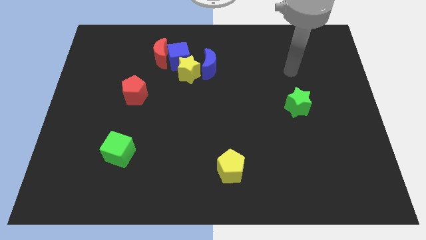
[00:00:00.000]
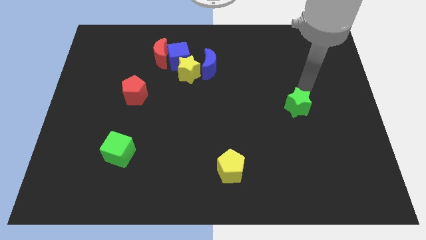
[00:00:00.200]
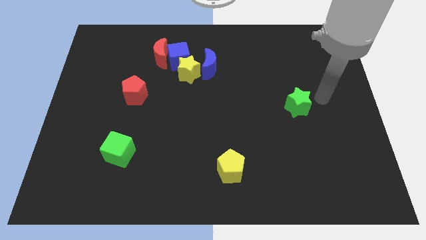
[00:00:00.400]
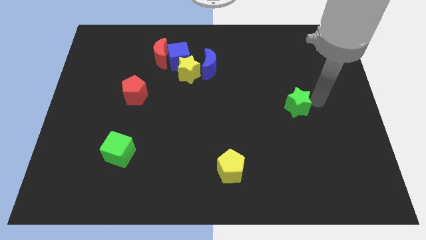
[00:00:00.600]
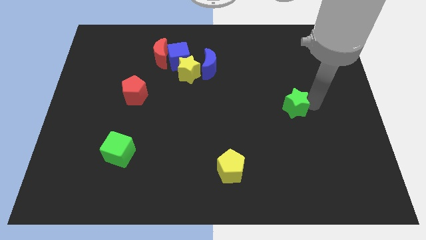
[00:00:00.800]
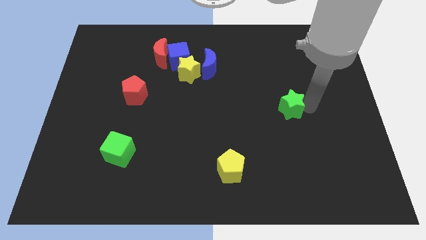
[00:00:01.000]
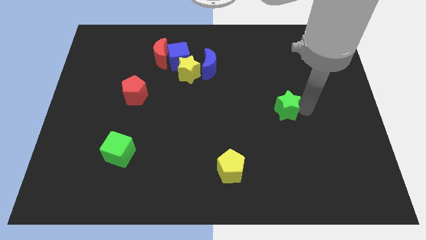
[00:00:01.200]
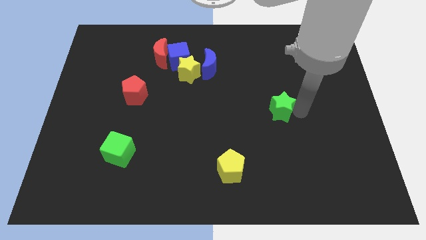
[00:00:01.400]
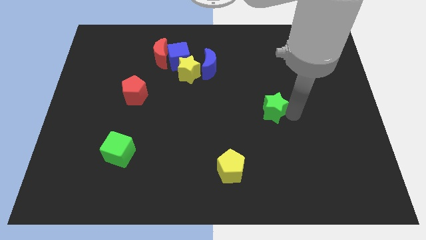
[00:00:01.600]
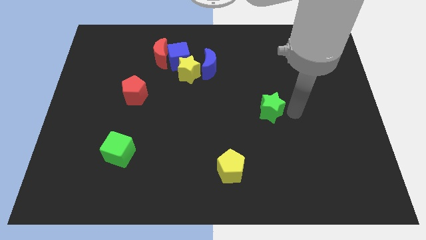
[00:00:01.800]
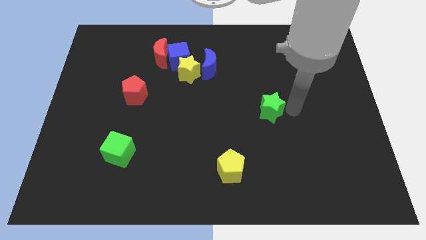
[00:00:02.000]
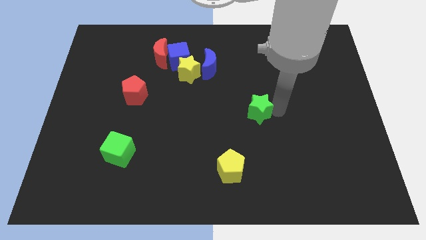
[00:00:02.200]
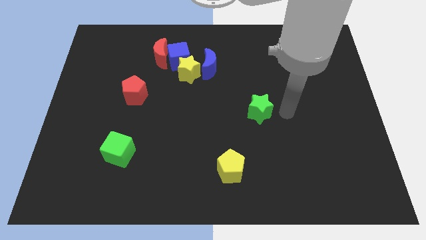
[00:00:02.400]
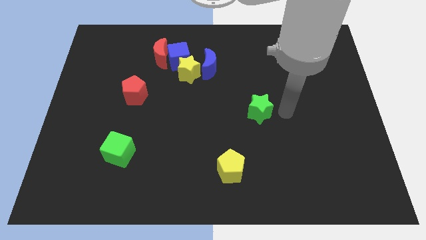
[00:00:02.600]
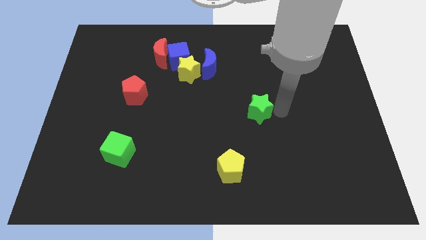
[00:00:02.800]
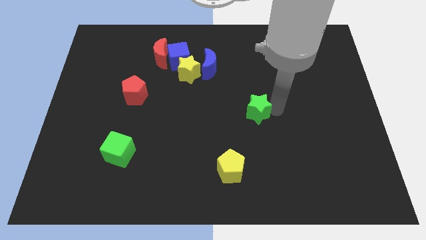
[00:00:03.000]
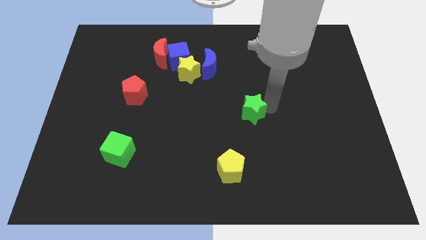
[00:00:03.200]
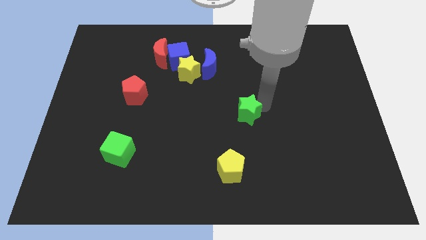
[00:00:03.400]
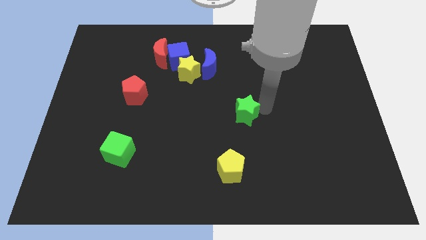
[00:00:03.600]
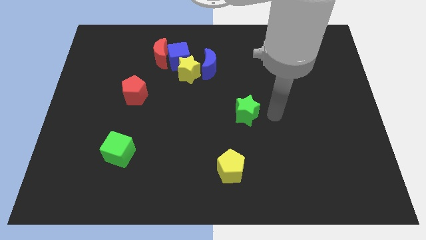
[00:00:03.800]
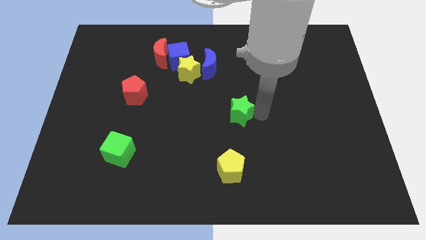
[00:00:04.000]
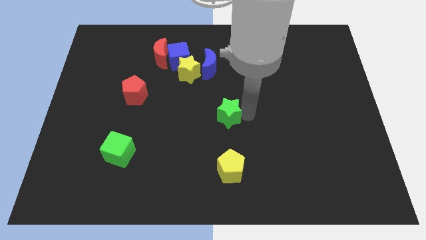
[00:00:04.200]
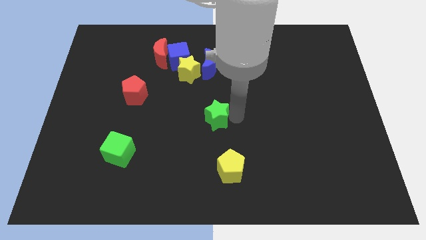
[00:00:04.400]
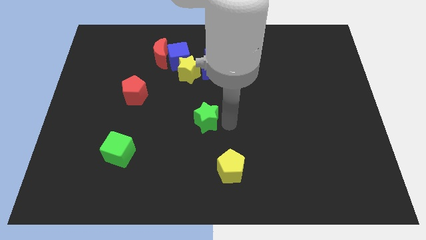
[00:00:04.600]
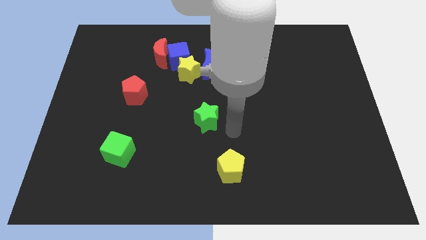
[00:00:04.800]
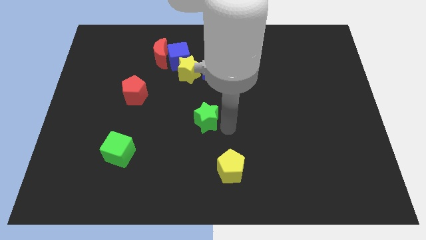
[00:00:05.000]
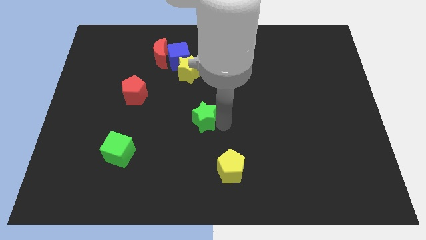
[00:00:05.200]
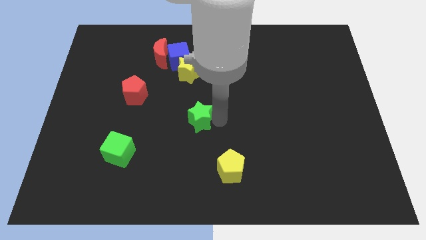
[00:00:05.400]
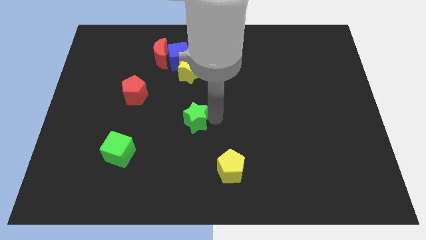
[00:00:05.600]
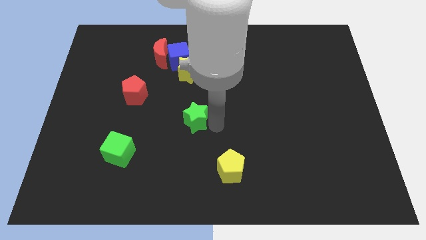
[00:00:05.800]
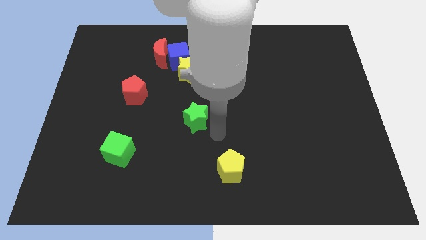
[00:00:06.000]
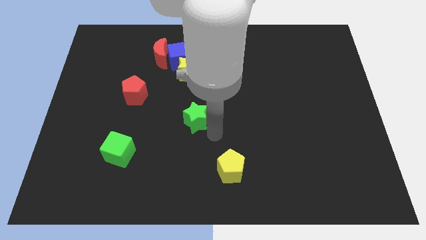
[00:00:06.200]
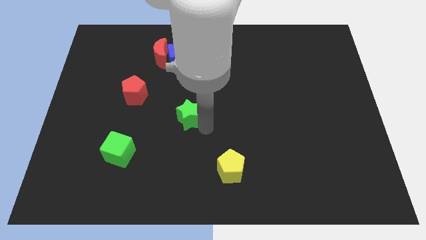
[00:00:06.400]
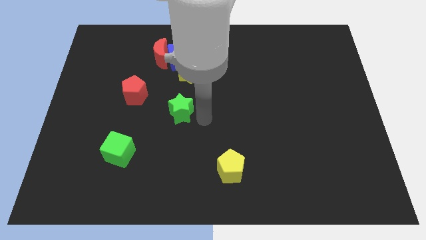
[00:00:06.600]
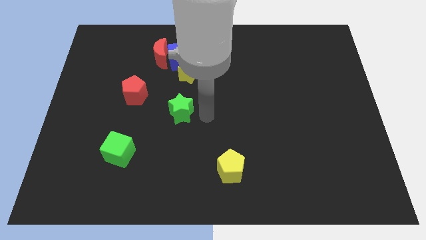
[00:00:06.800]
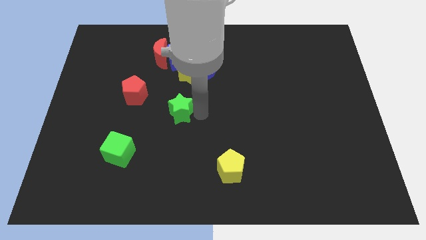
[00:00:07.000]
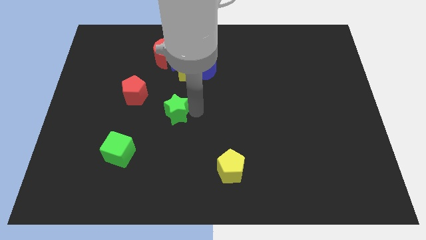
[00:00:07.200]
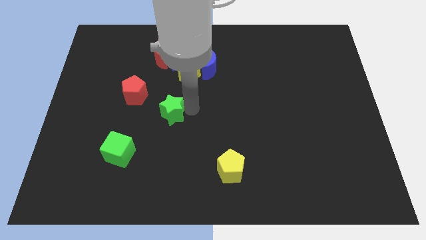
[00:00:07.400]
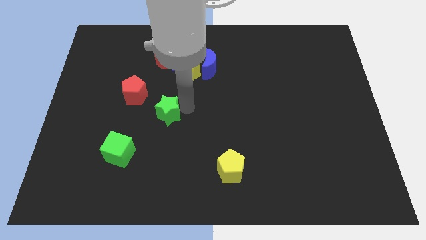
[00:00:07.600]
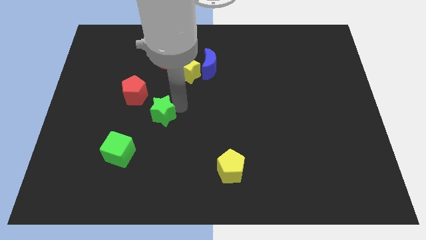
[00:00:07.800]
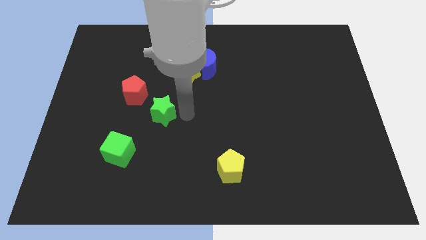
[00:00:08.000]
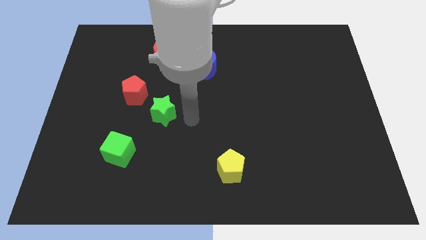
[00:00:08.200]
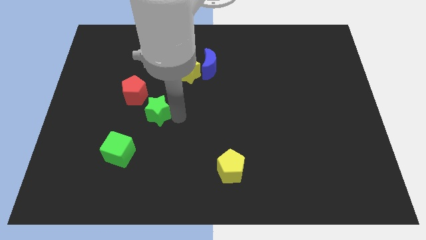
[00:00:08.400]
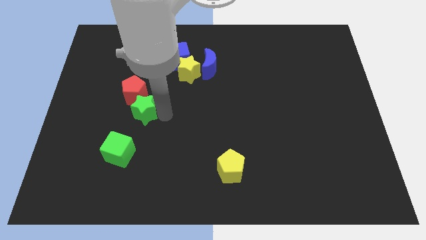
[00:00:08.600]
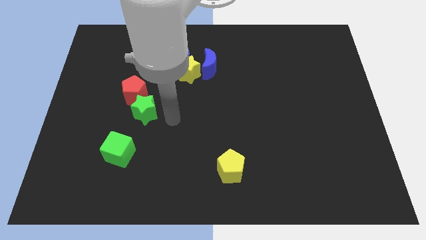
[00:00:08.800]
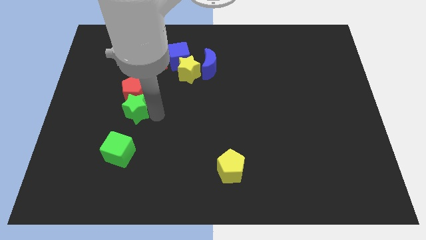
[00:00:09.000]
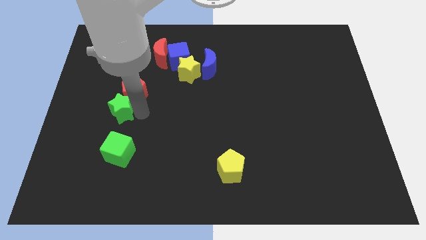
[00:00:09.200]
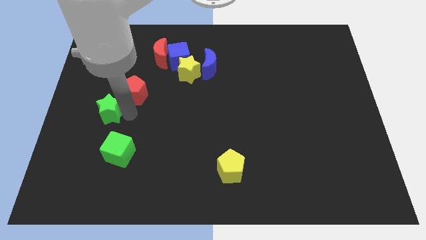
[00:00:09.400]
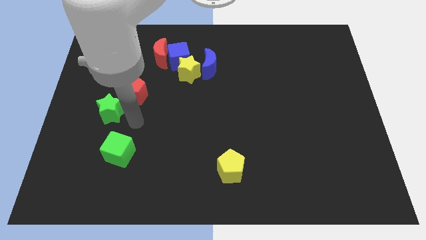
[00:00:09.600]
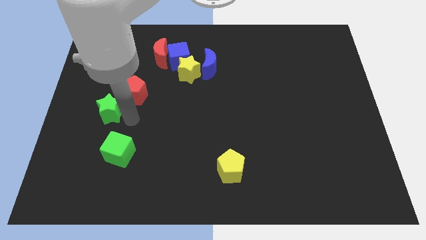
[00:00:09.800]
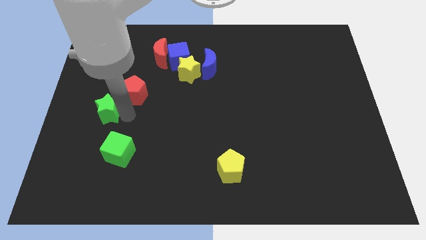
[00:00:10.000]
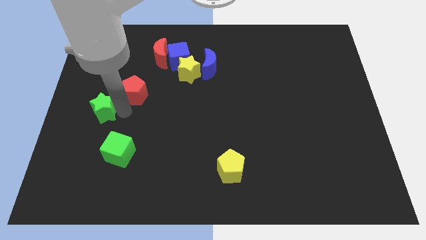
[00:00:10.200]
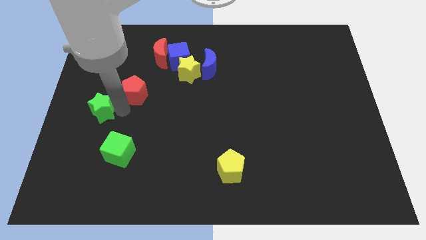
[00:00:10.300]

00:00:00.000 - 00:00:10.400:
put the green star to the left side of the board

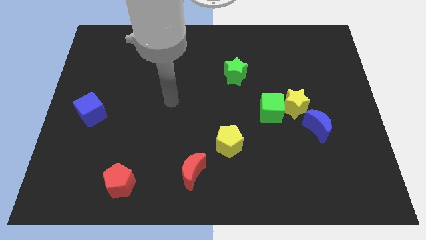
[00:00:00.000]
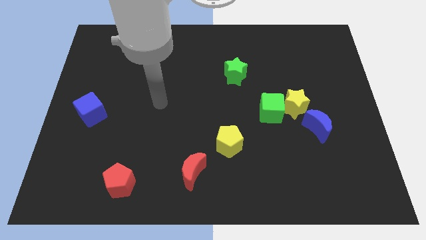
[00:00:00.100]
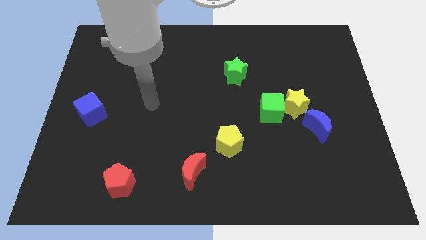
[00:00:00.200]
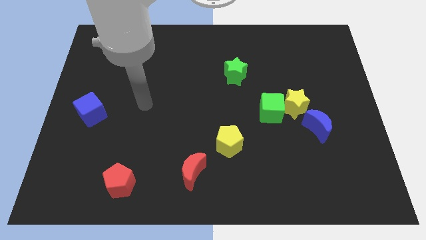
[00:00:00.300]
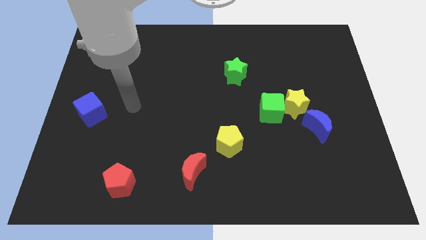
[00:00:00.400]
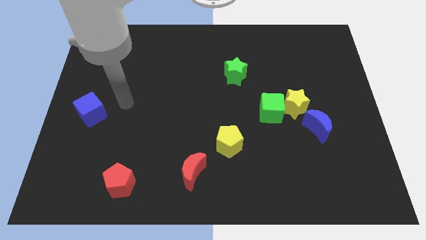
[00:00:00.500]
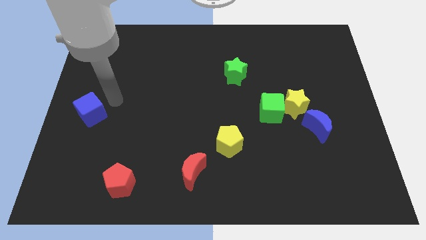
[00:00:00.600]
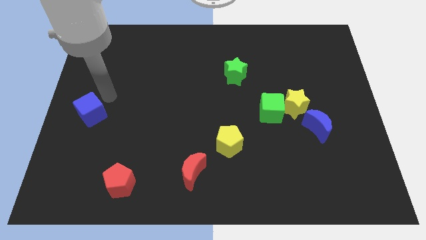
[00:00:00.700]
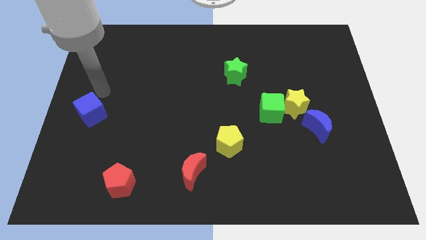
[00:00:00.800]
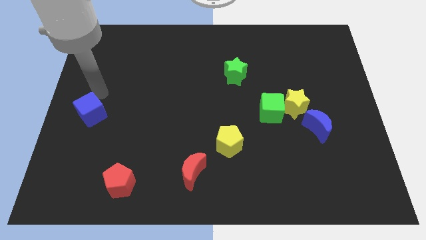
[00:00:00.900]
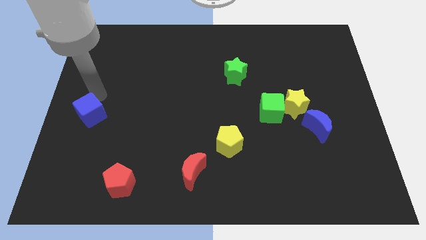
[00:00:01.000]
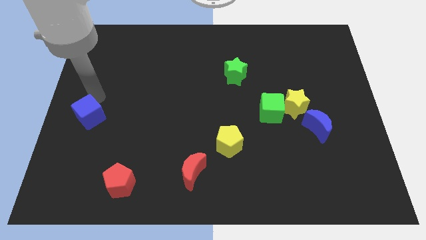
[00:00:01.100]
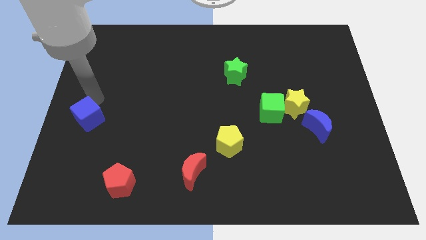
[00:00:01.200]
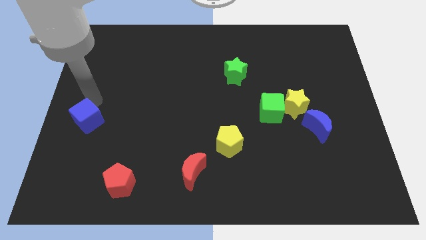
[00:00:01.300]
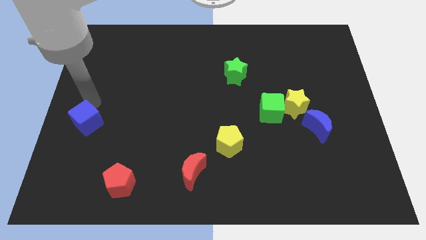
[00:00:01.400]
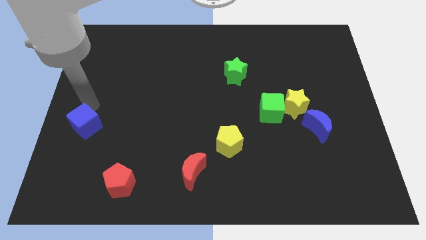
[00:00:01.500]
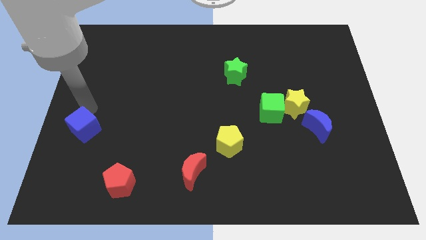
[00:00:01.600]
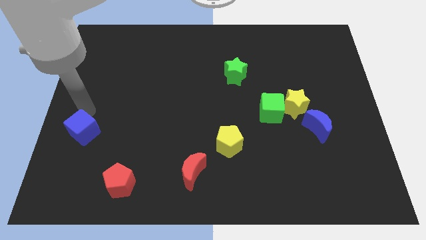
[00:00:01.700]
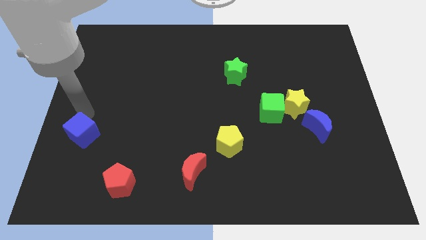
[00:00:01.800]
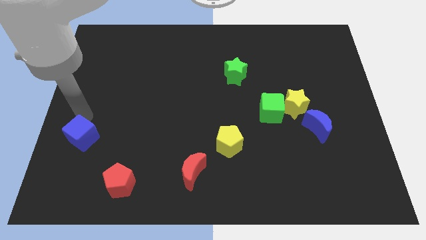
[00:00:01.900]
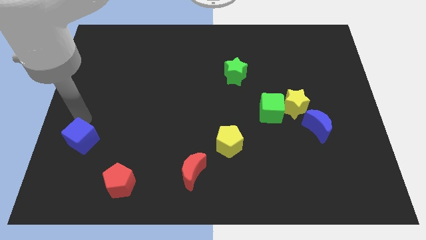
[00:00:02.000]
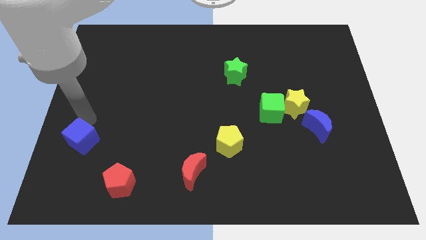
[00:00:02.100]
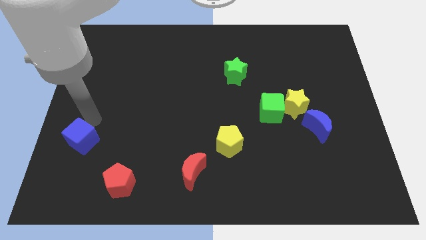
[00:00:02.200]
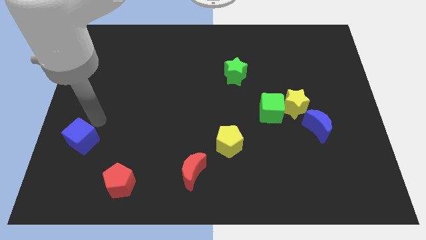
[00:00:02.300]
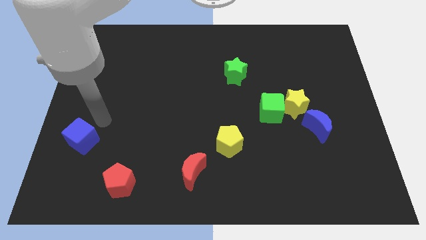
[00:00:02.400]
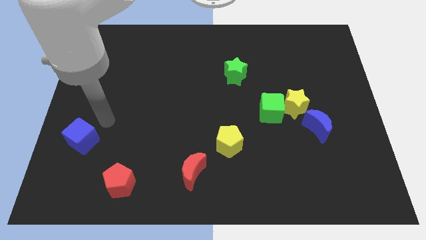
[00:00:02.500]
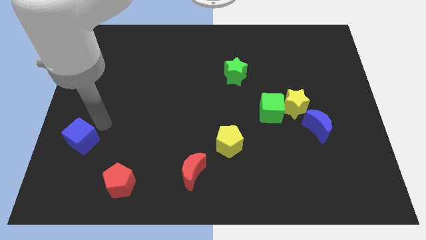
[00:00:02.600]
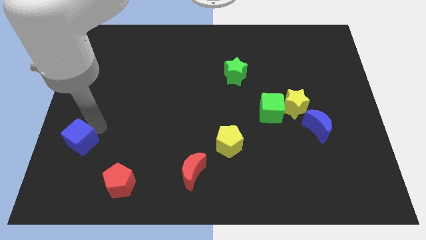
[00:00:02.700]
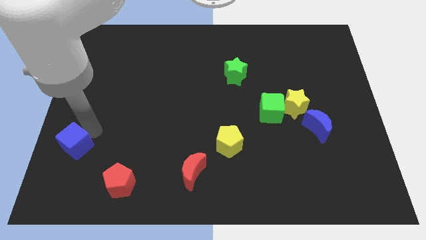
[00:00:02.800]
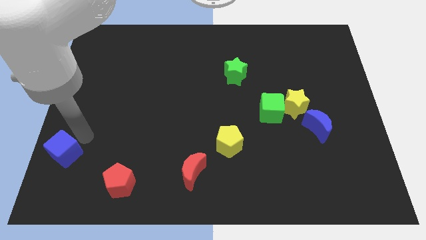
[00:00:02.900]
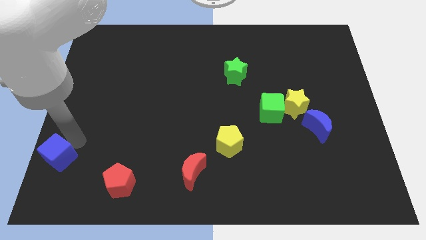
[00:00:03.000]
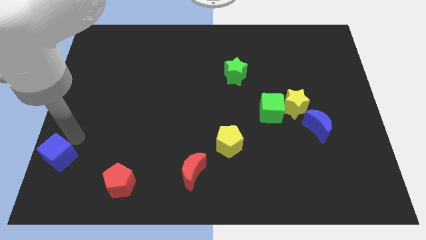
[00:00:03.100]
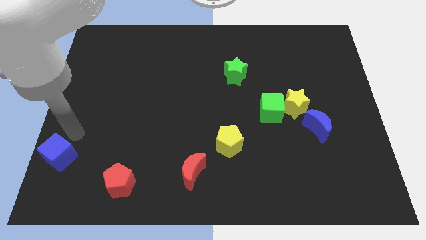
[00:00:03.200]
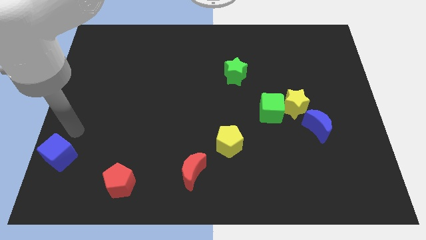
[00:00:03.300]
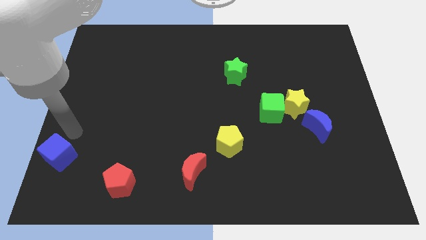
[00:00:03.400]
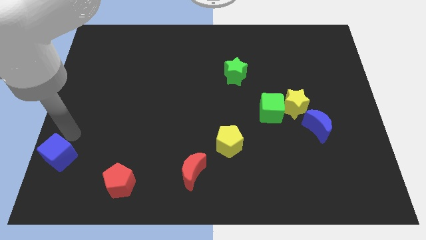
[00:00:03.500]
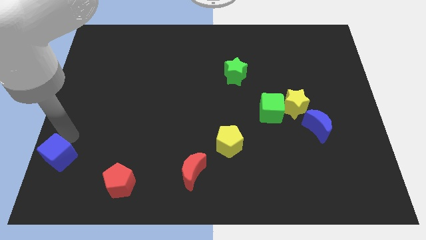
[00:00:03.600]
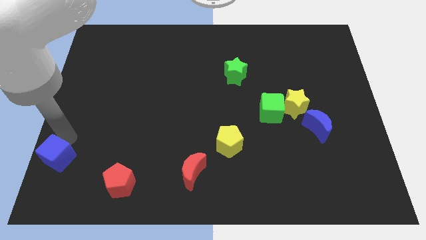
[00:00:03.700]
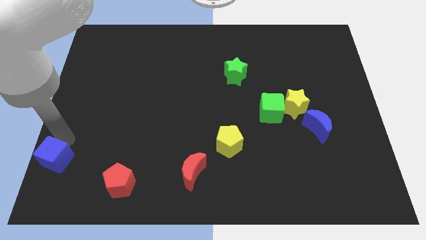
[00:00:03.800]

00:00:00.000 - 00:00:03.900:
move the blue cube to the bottom left corner
